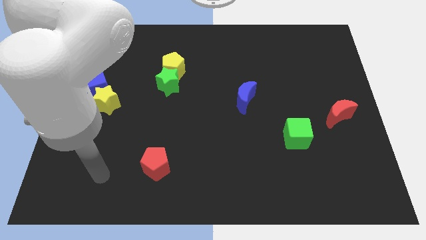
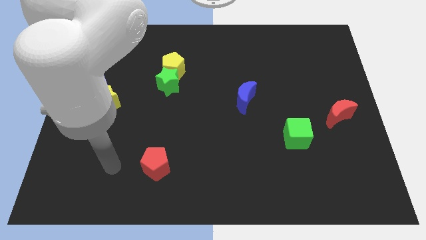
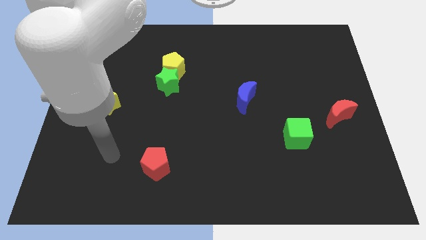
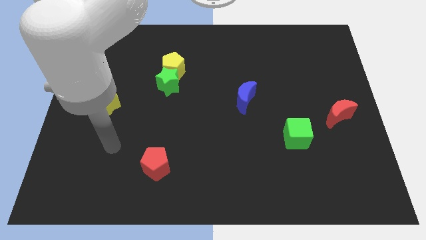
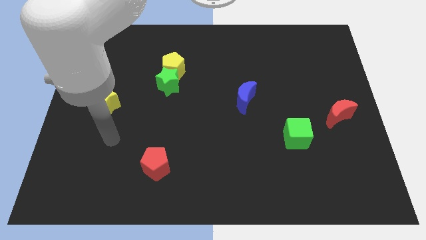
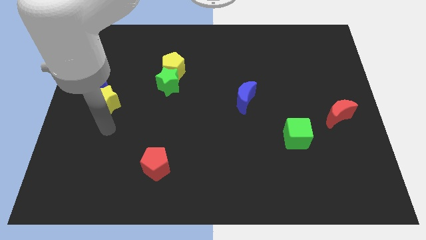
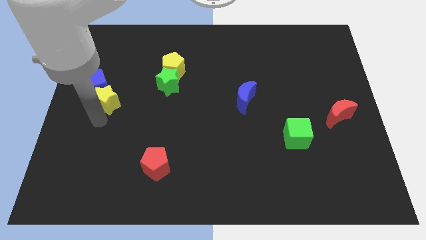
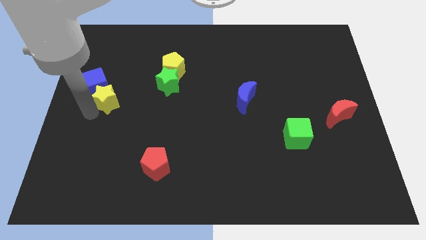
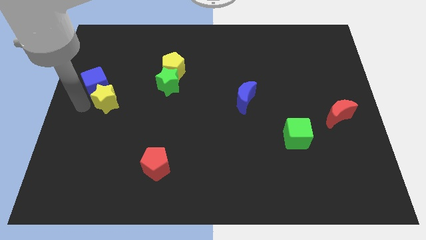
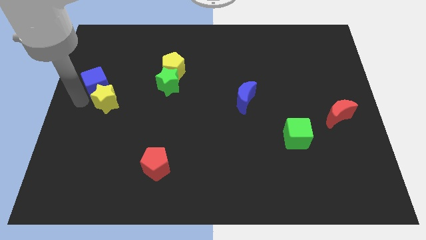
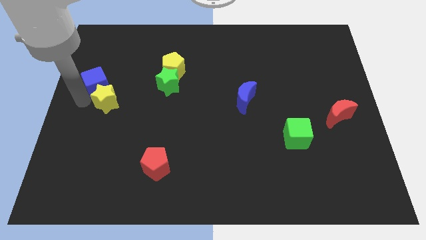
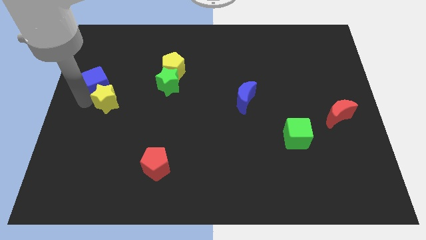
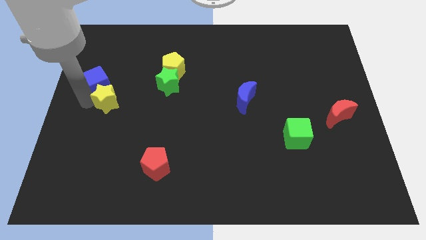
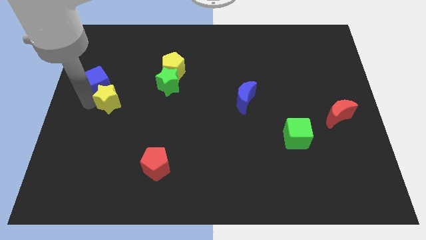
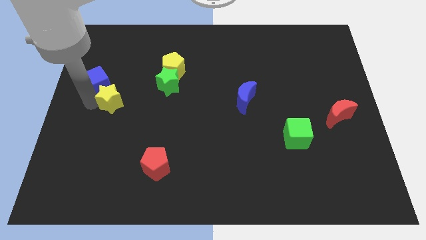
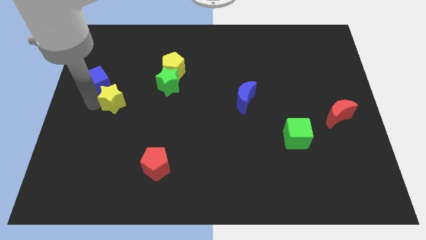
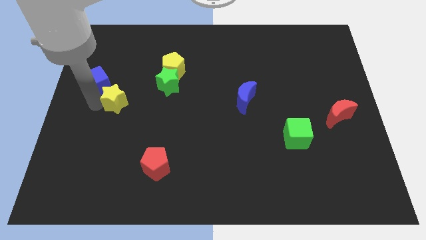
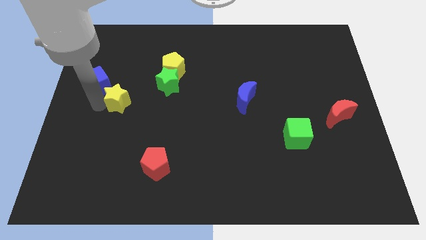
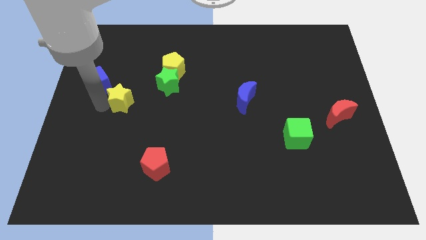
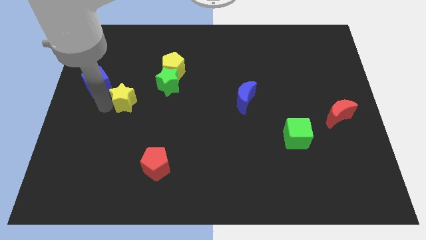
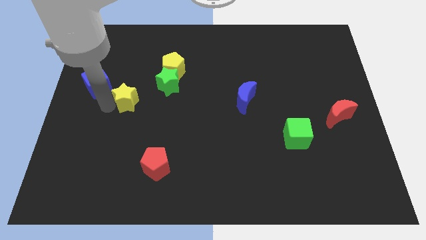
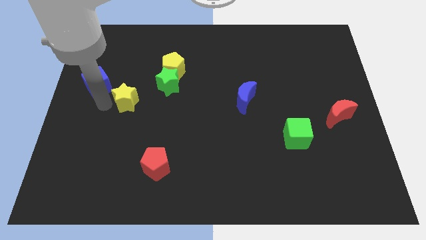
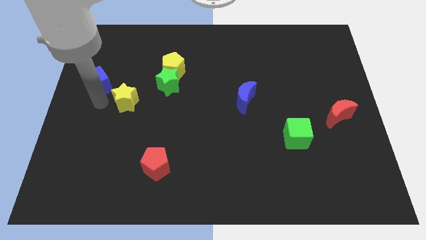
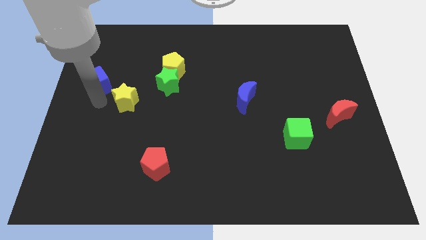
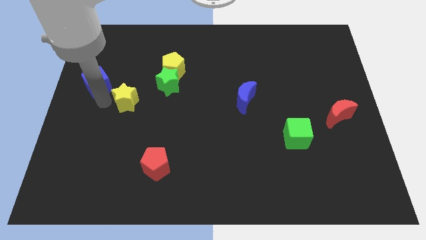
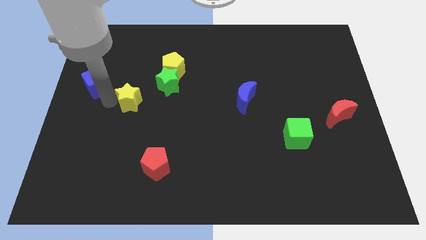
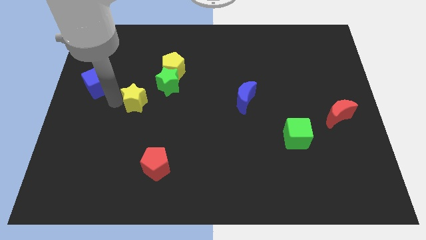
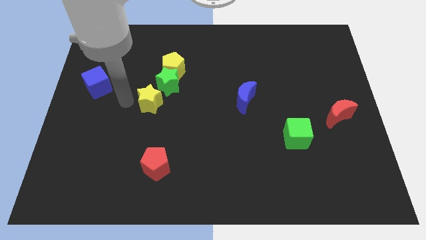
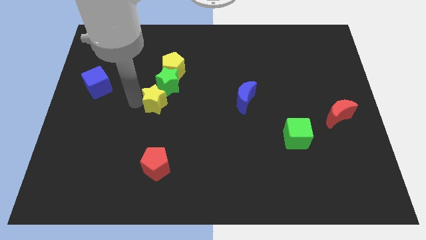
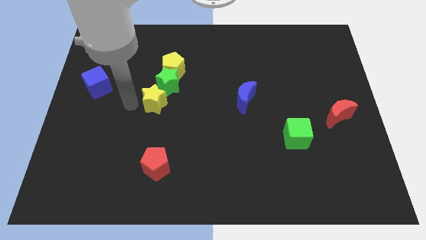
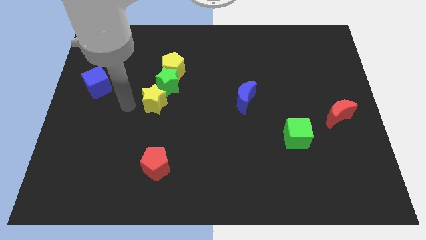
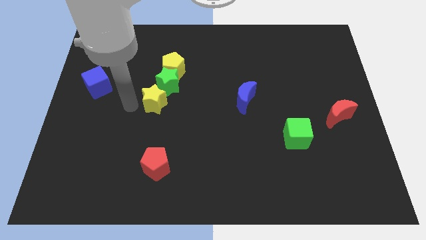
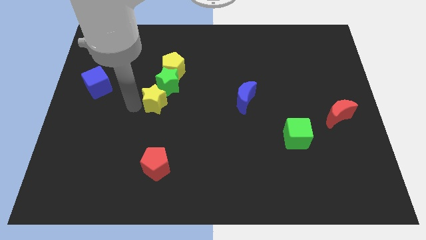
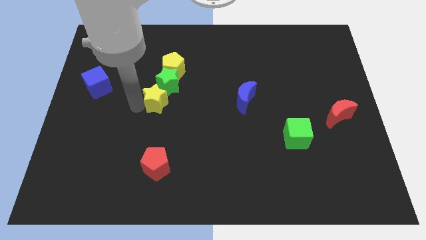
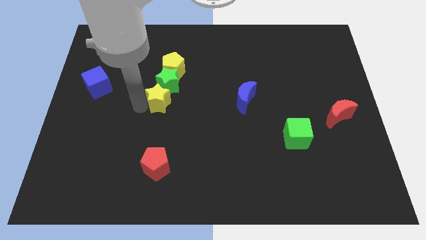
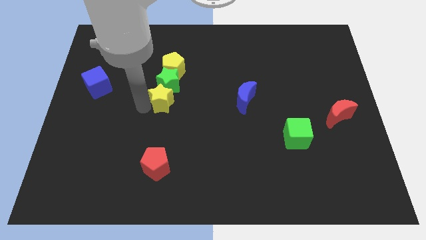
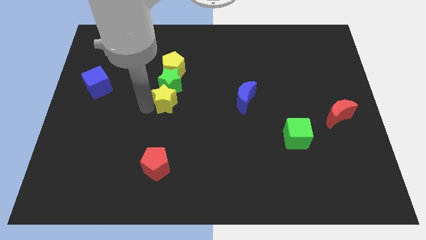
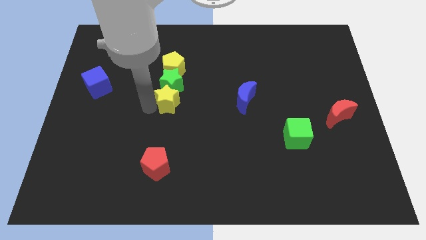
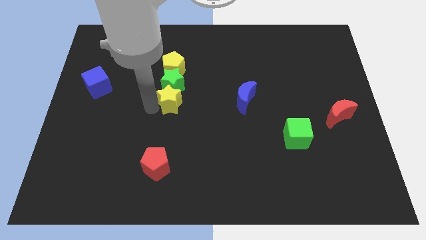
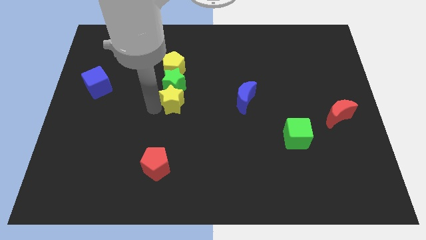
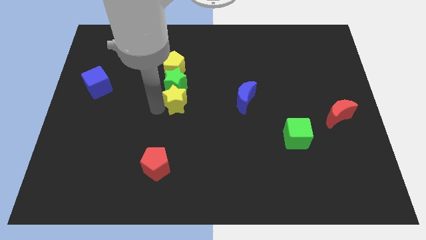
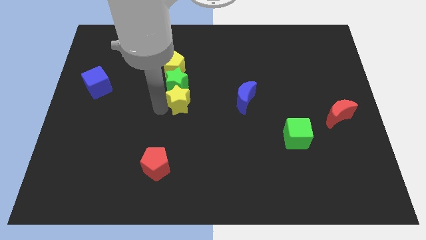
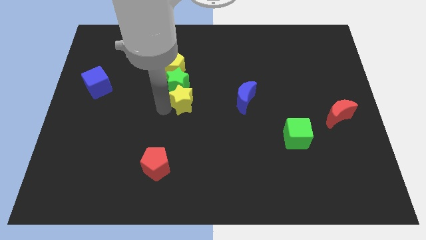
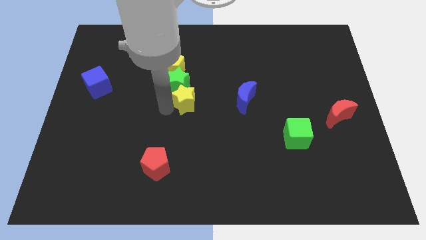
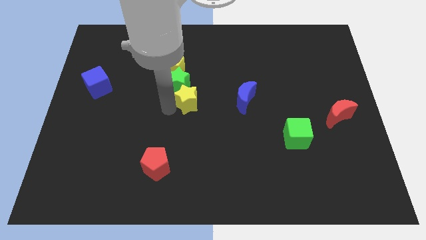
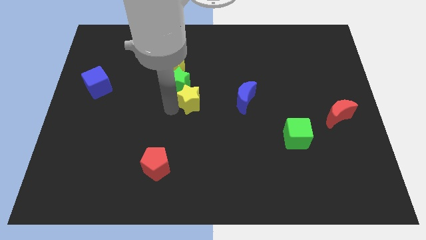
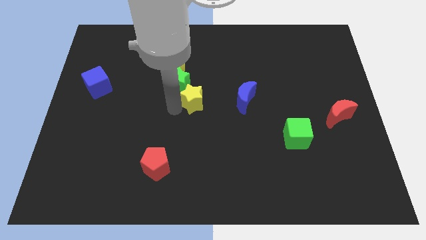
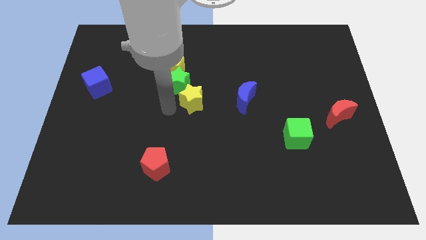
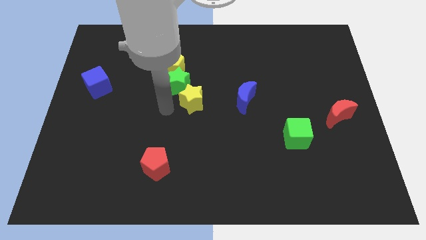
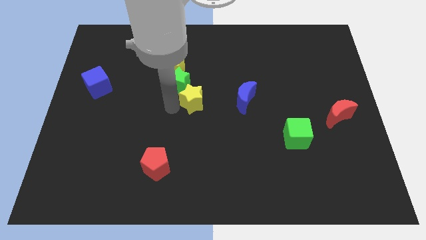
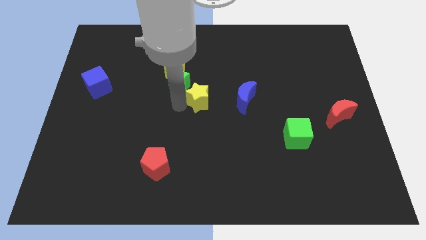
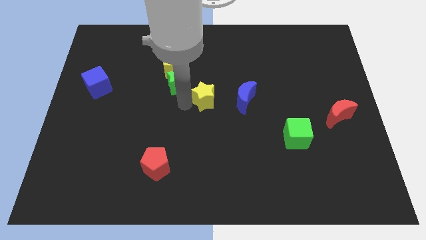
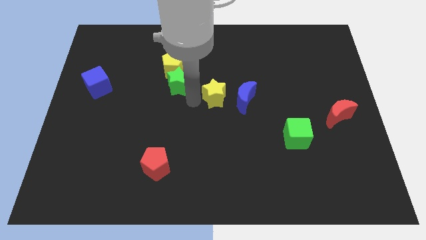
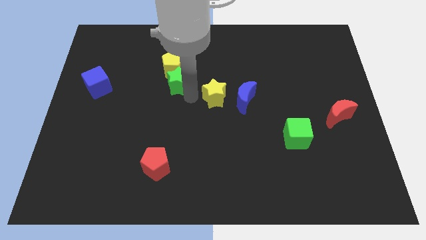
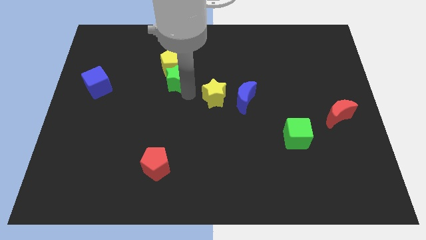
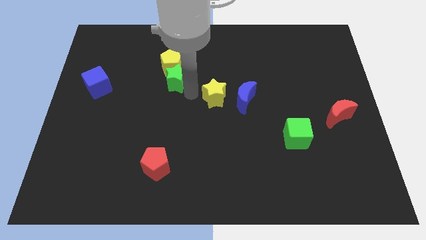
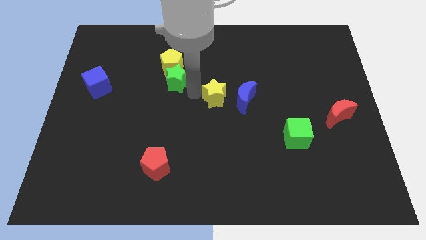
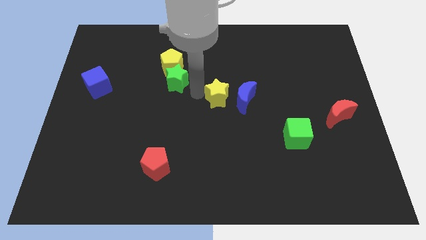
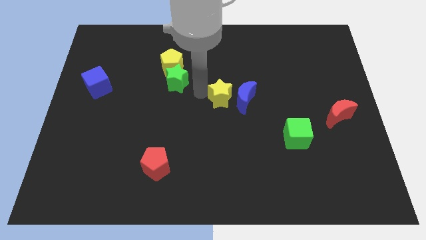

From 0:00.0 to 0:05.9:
slide the yellow star towards the blue moon
